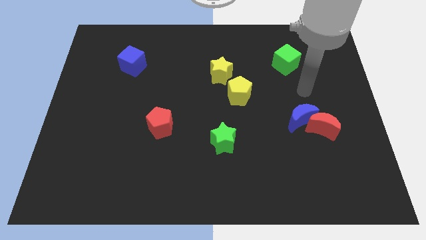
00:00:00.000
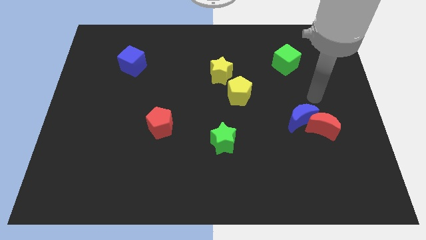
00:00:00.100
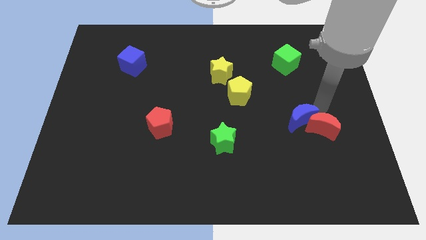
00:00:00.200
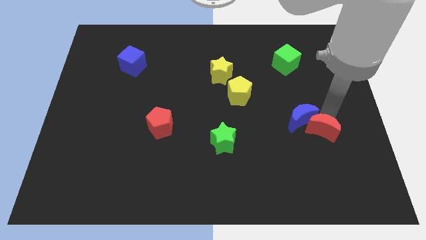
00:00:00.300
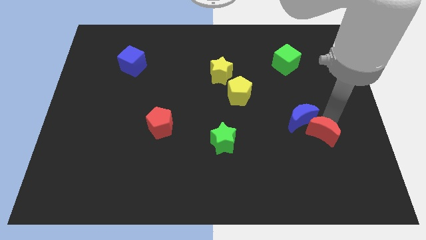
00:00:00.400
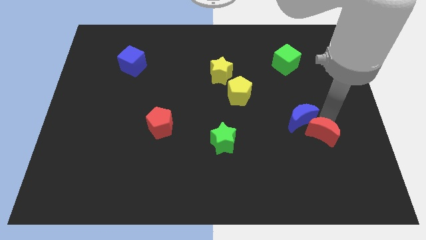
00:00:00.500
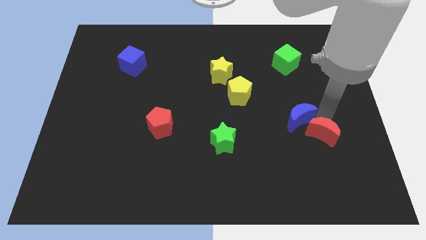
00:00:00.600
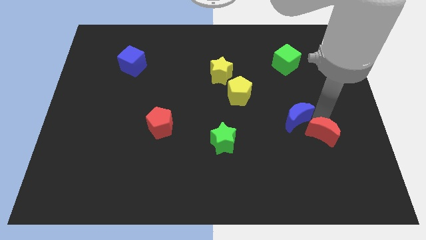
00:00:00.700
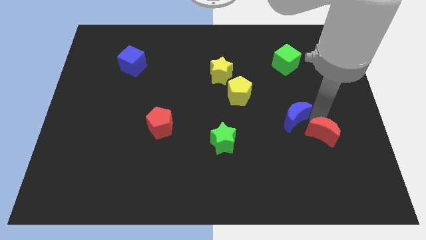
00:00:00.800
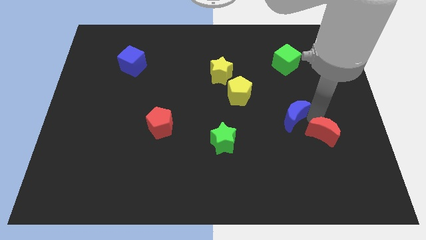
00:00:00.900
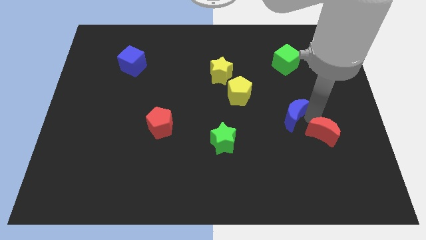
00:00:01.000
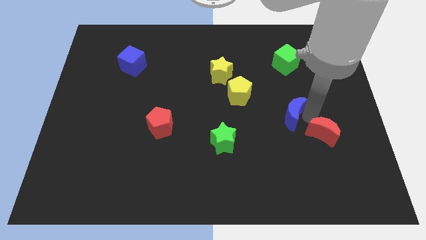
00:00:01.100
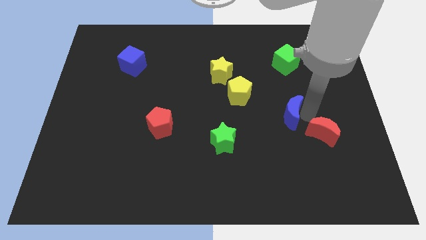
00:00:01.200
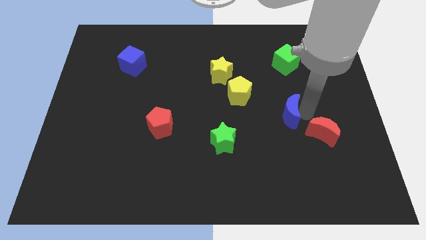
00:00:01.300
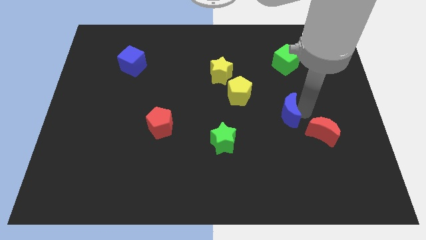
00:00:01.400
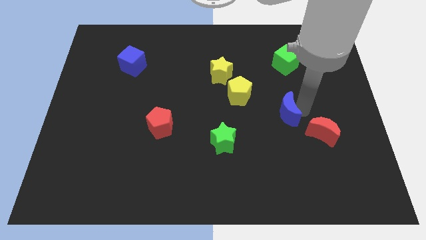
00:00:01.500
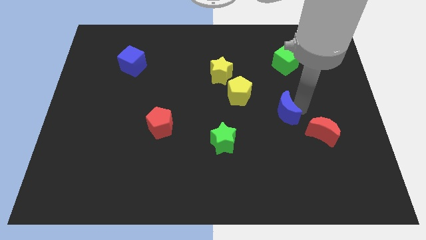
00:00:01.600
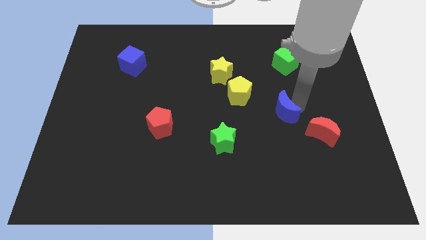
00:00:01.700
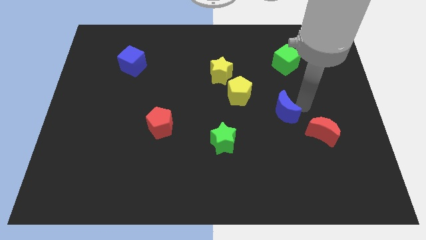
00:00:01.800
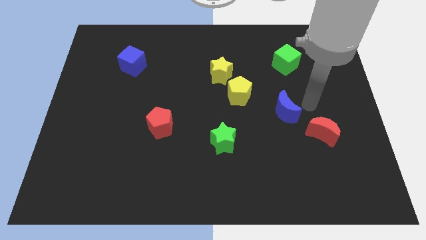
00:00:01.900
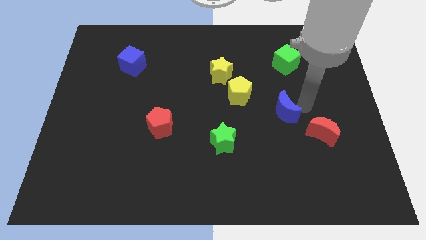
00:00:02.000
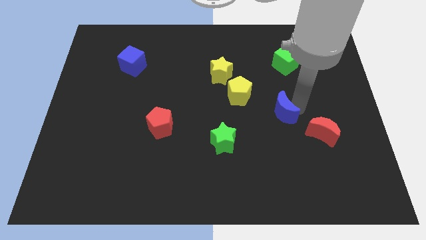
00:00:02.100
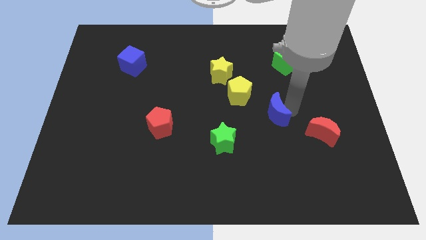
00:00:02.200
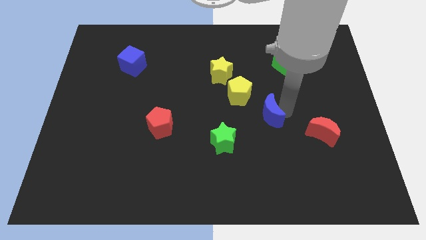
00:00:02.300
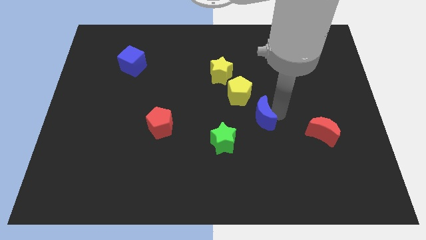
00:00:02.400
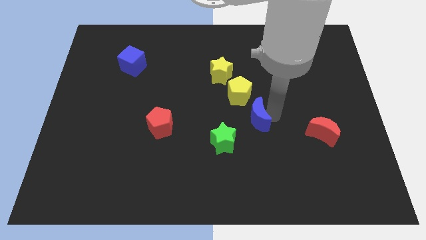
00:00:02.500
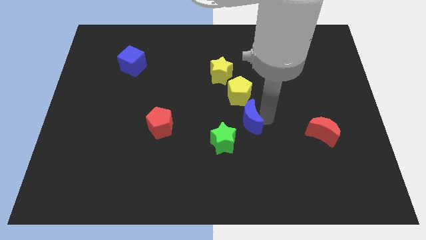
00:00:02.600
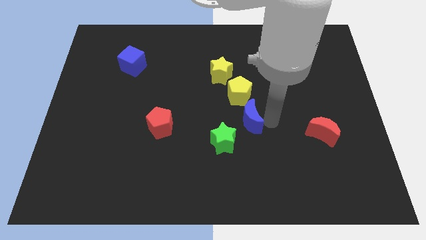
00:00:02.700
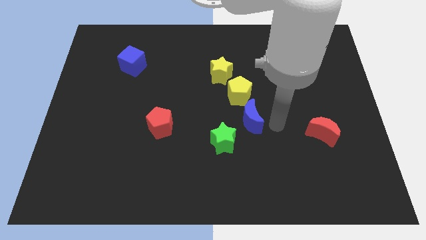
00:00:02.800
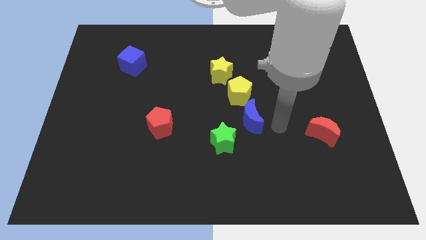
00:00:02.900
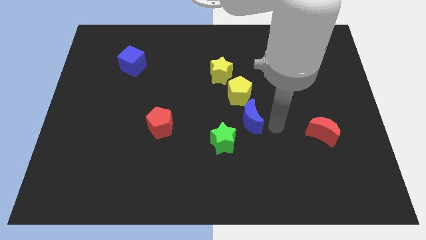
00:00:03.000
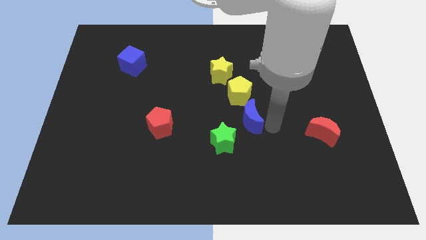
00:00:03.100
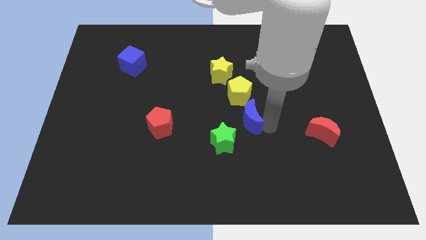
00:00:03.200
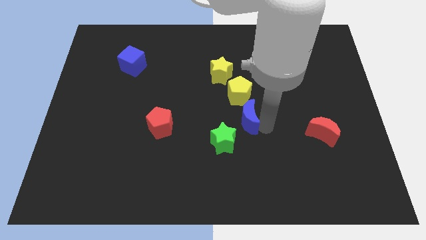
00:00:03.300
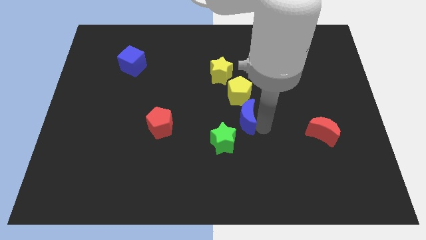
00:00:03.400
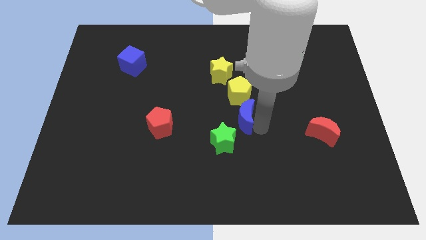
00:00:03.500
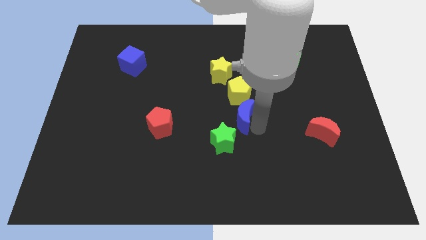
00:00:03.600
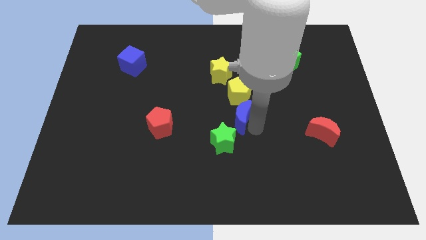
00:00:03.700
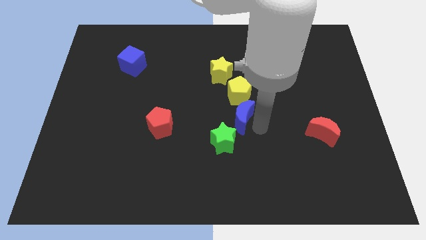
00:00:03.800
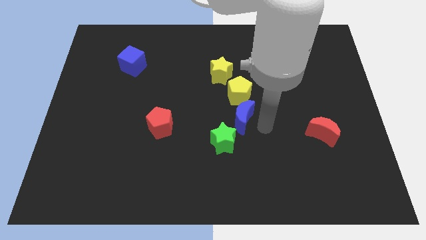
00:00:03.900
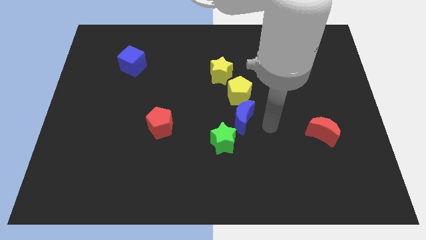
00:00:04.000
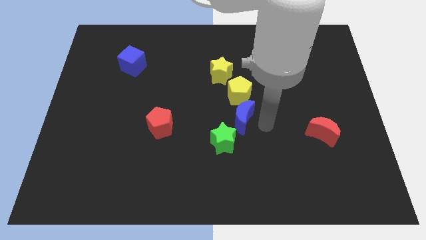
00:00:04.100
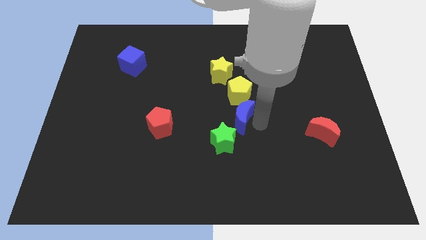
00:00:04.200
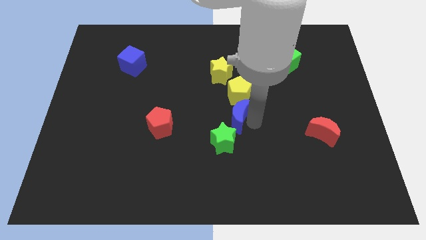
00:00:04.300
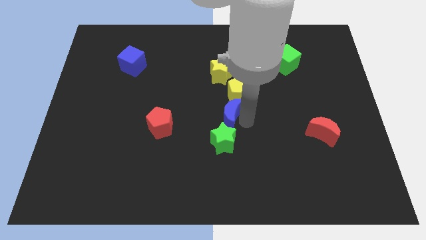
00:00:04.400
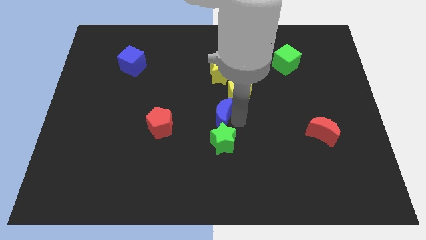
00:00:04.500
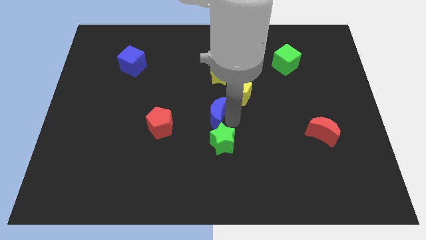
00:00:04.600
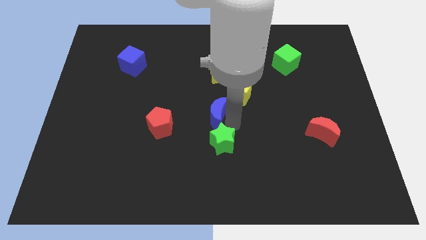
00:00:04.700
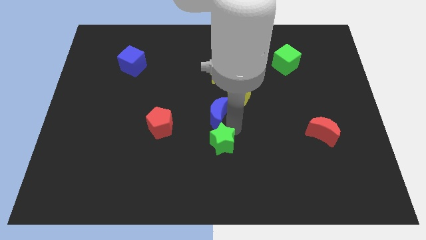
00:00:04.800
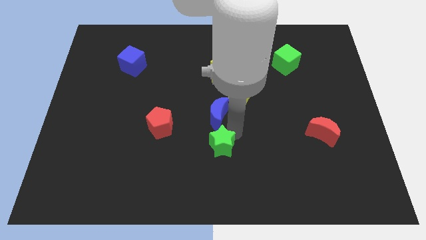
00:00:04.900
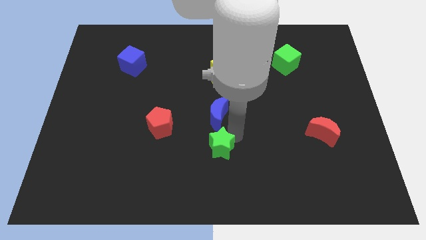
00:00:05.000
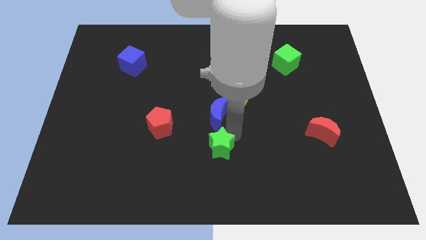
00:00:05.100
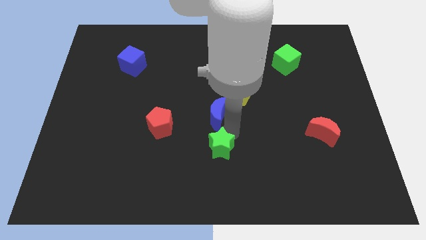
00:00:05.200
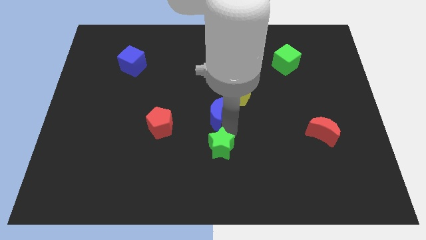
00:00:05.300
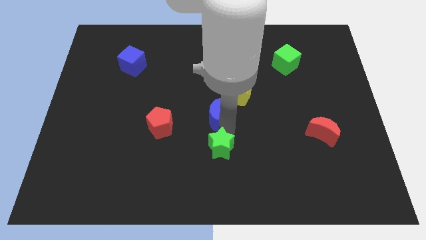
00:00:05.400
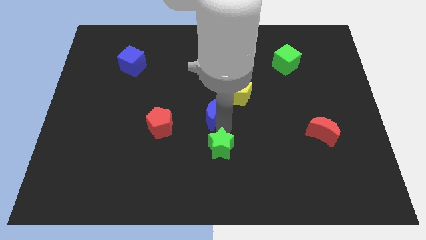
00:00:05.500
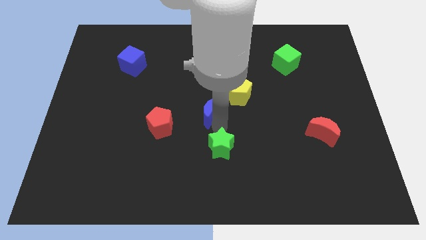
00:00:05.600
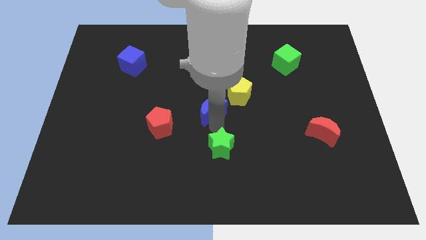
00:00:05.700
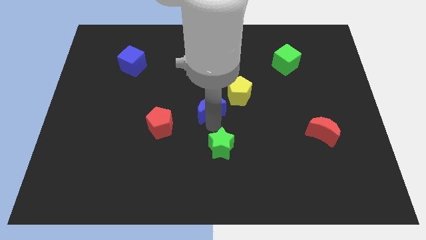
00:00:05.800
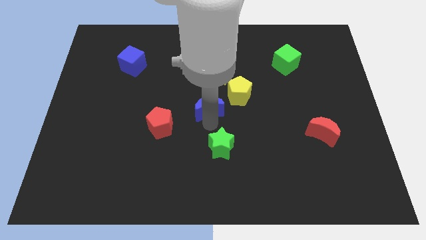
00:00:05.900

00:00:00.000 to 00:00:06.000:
move the blue moon left of the yellow pentagon
